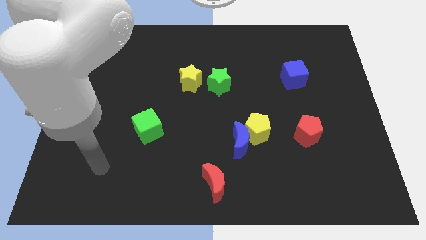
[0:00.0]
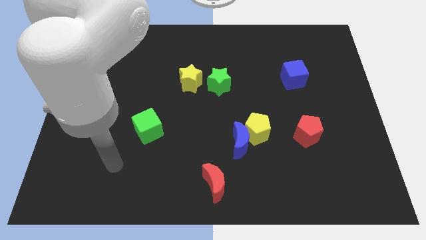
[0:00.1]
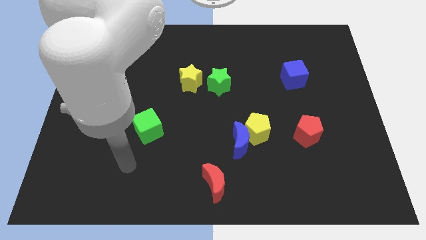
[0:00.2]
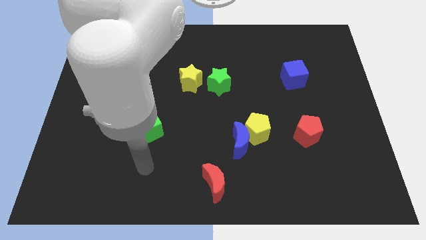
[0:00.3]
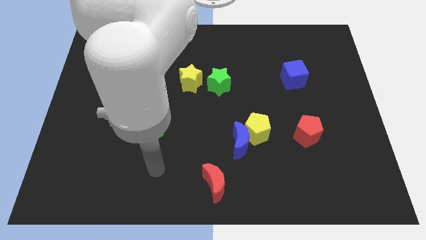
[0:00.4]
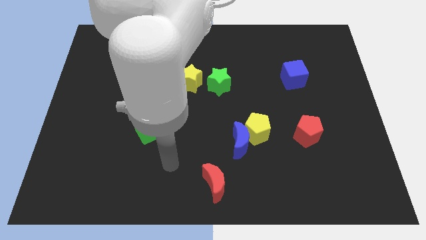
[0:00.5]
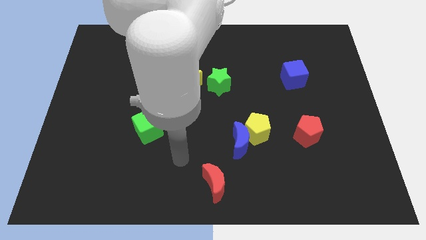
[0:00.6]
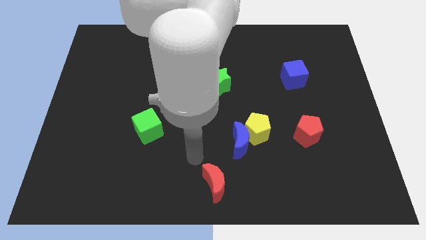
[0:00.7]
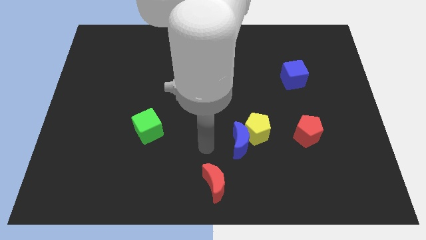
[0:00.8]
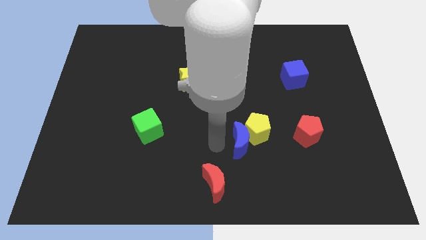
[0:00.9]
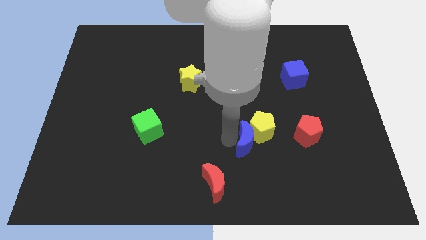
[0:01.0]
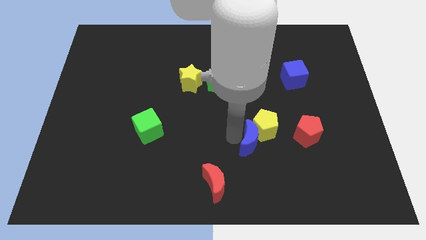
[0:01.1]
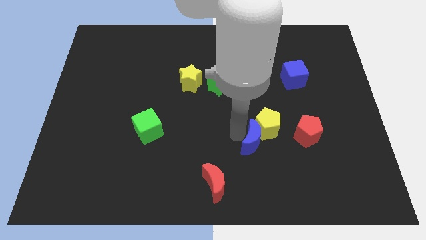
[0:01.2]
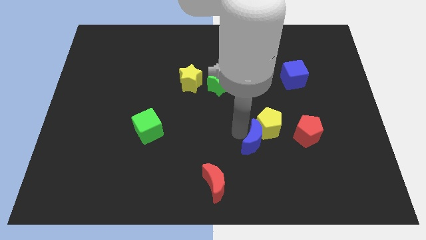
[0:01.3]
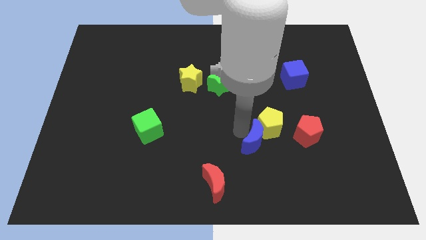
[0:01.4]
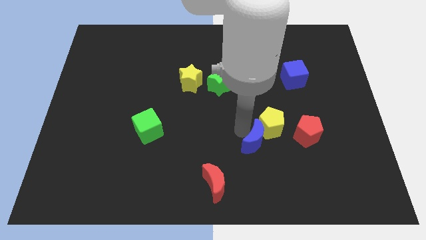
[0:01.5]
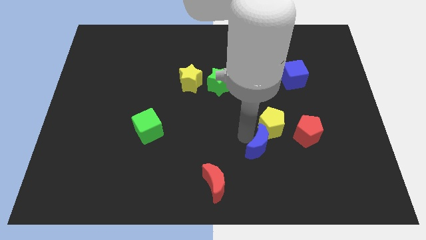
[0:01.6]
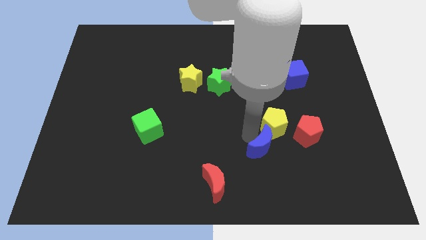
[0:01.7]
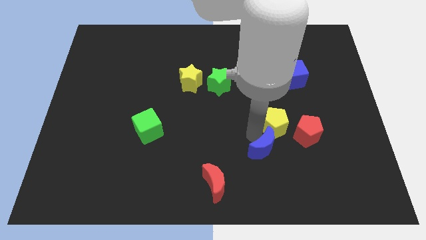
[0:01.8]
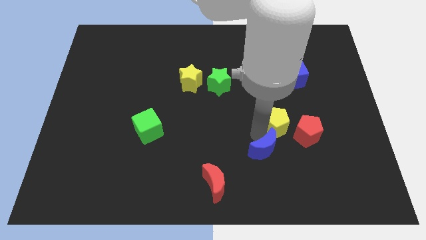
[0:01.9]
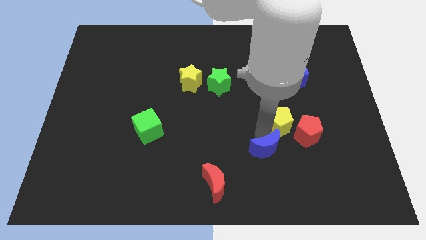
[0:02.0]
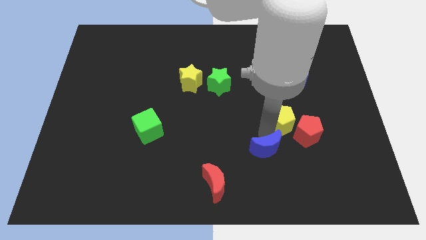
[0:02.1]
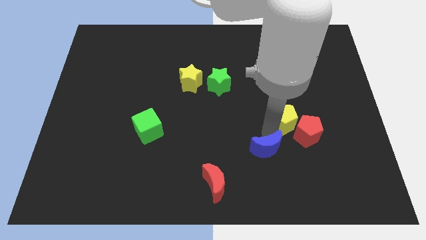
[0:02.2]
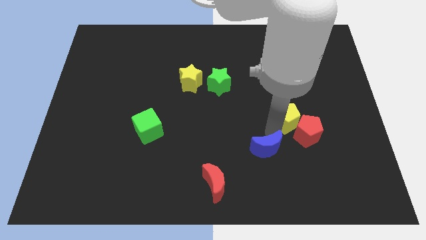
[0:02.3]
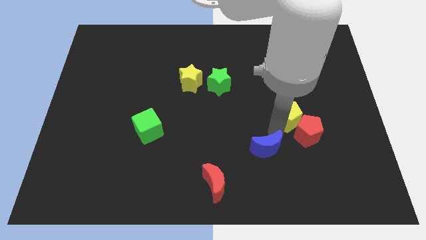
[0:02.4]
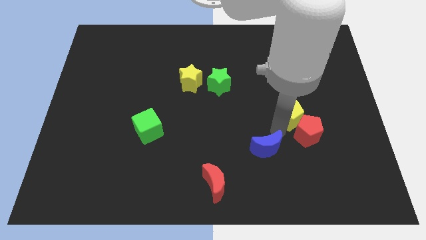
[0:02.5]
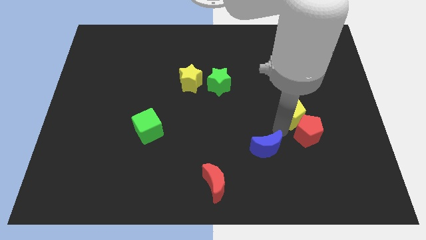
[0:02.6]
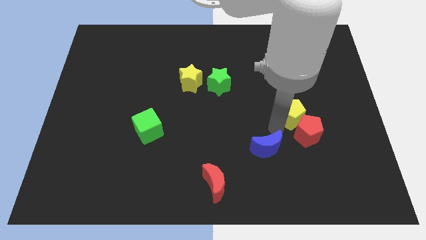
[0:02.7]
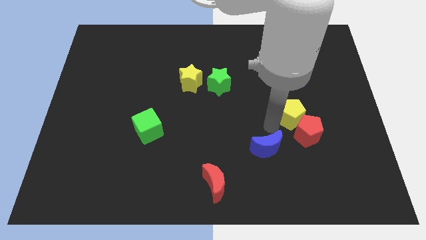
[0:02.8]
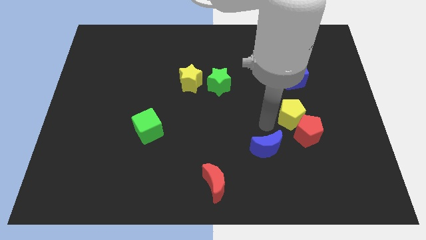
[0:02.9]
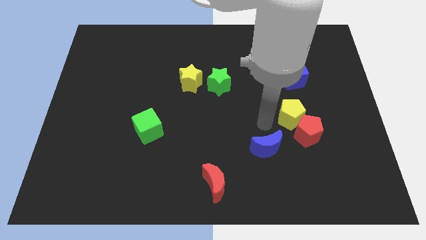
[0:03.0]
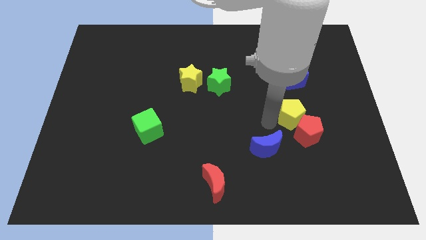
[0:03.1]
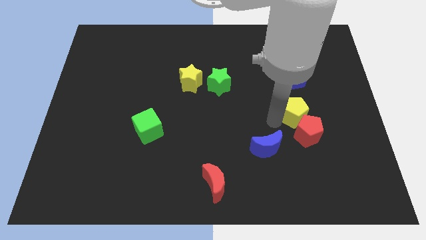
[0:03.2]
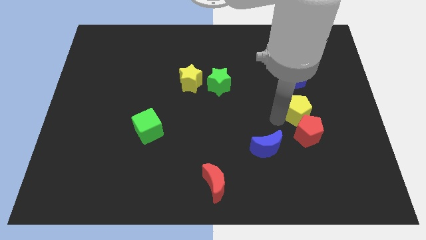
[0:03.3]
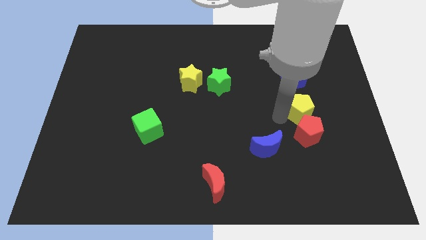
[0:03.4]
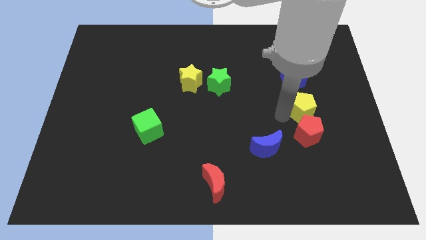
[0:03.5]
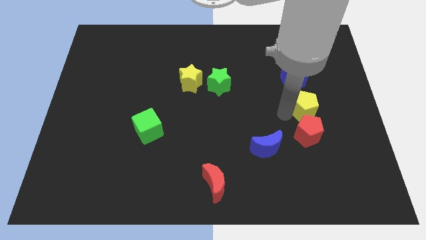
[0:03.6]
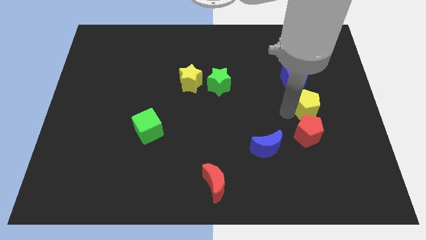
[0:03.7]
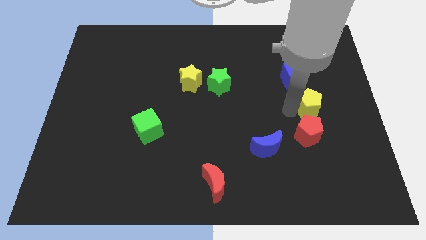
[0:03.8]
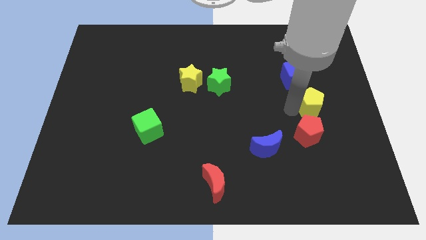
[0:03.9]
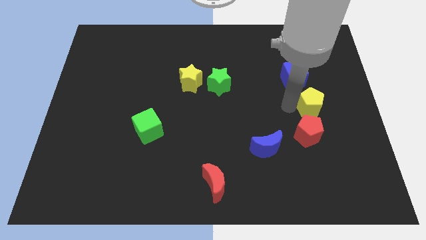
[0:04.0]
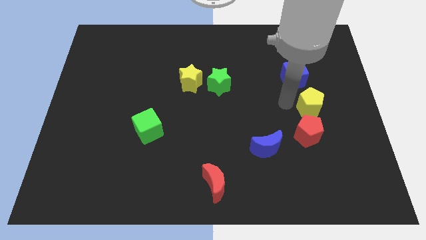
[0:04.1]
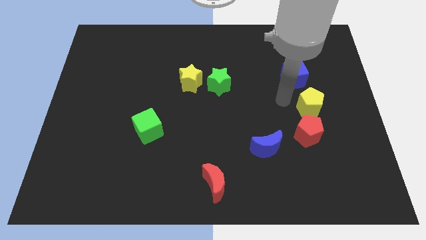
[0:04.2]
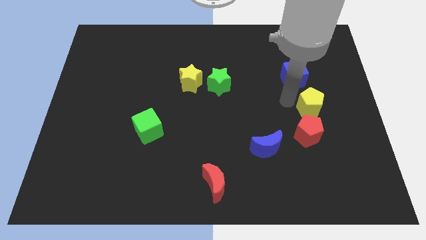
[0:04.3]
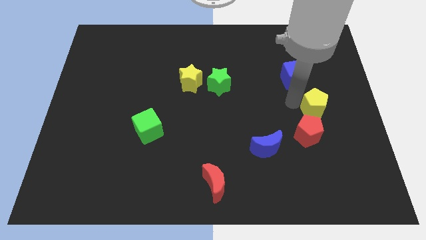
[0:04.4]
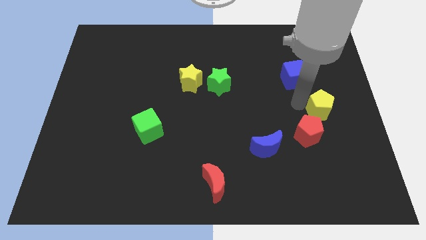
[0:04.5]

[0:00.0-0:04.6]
move the yellow pentagon to the right side

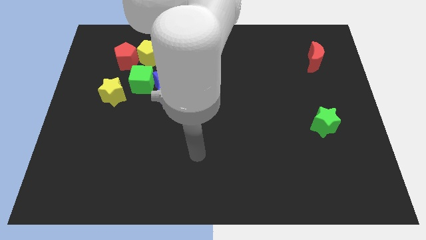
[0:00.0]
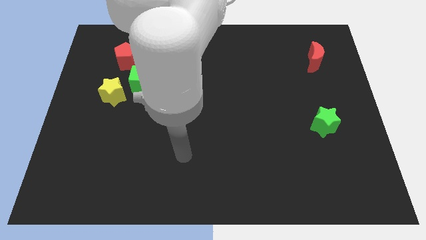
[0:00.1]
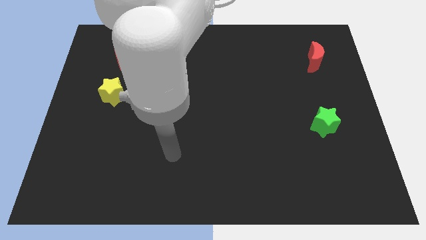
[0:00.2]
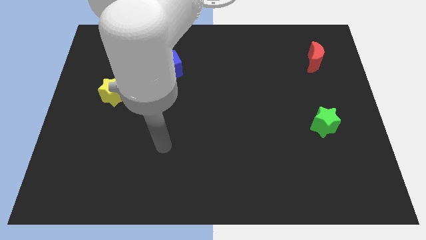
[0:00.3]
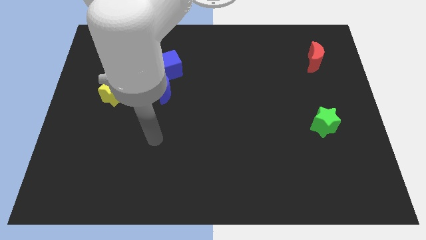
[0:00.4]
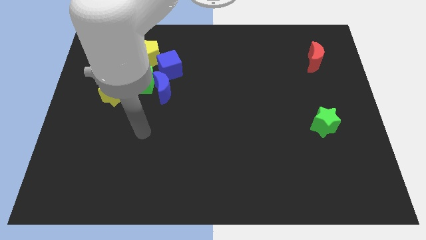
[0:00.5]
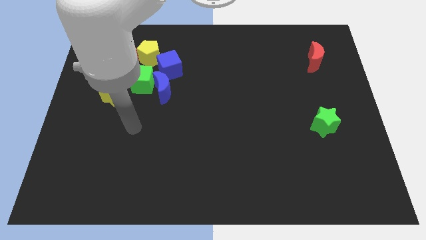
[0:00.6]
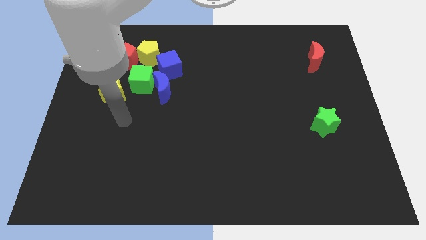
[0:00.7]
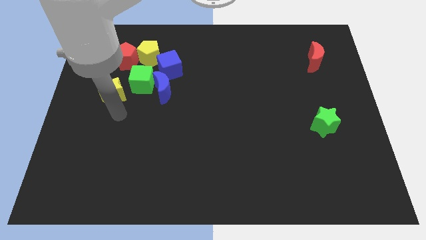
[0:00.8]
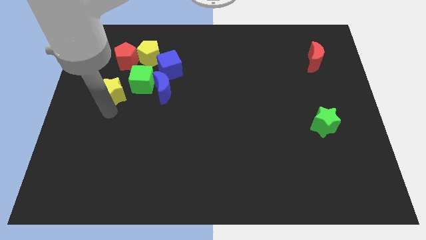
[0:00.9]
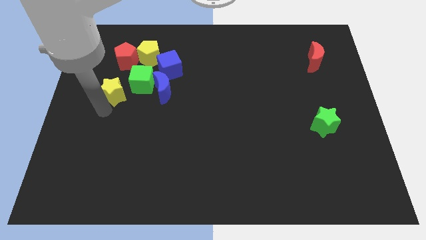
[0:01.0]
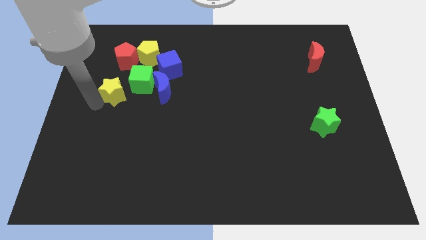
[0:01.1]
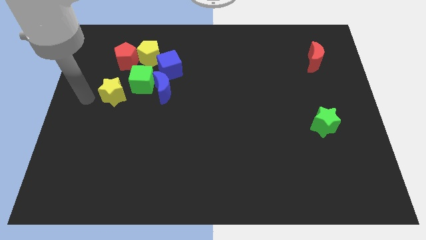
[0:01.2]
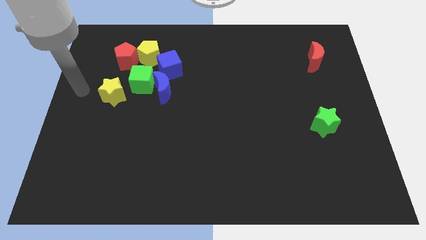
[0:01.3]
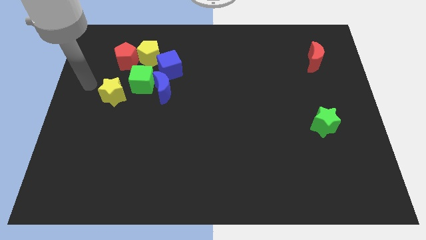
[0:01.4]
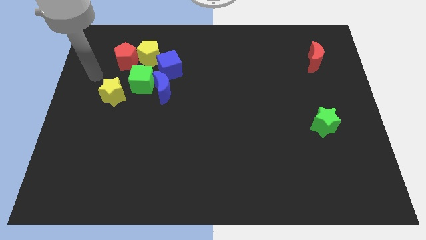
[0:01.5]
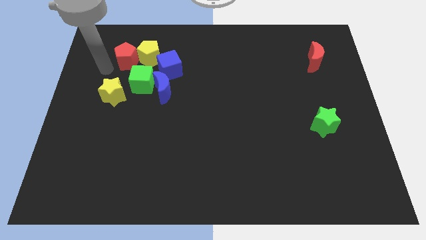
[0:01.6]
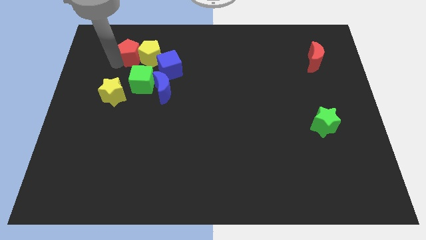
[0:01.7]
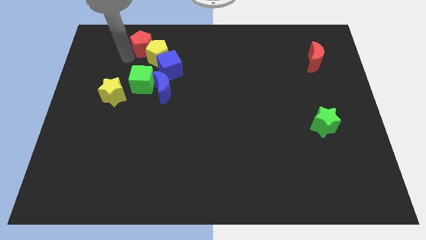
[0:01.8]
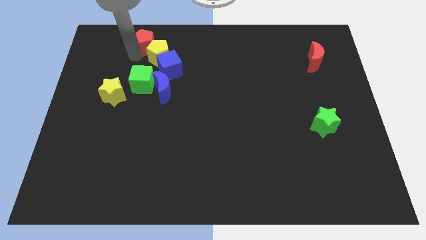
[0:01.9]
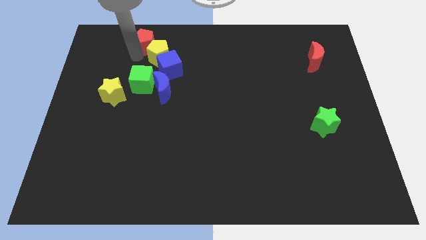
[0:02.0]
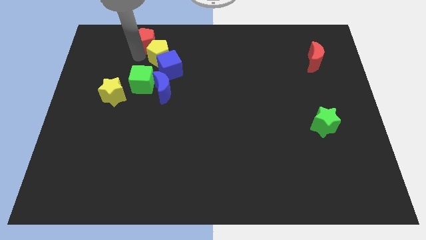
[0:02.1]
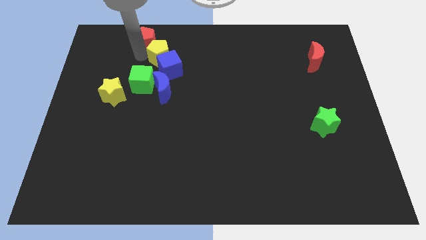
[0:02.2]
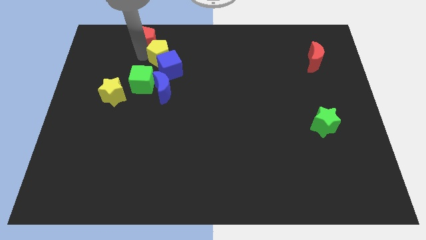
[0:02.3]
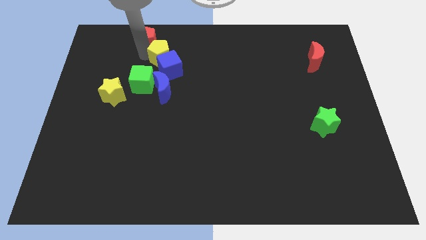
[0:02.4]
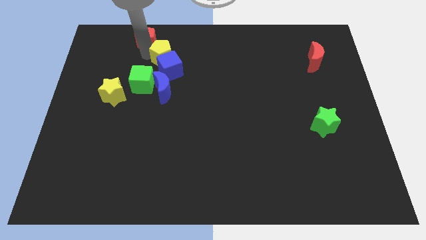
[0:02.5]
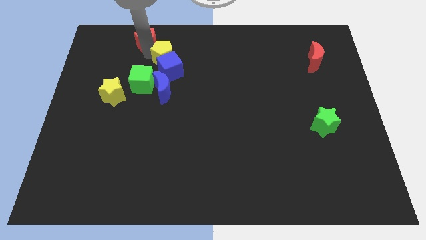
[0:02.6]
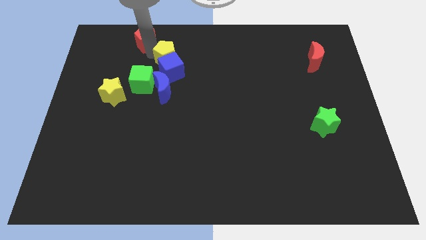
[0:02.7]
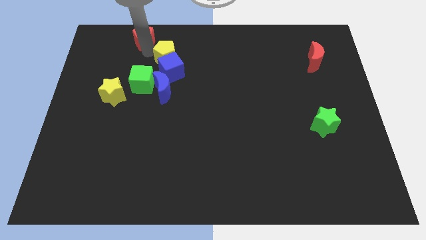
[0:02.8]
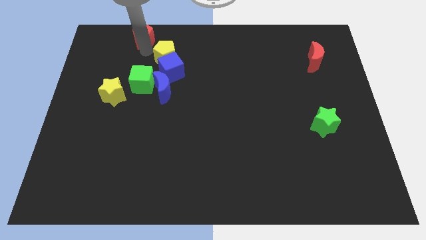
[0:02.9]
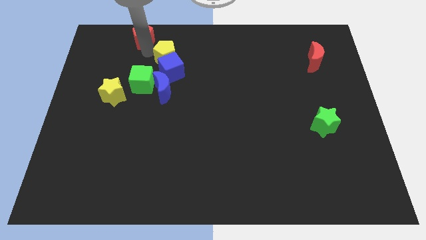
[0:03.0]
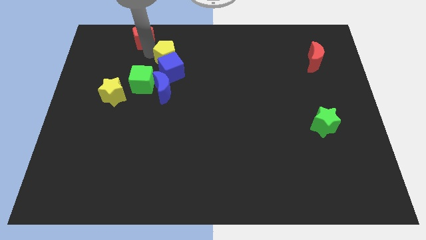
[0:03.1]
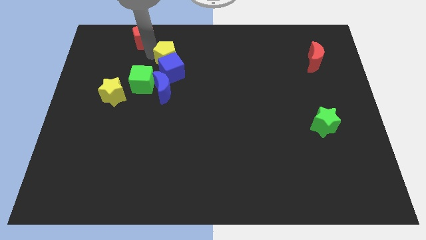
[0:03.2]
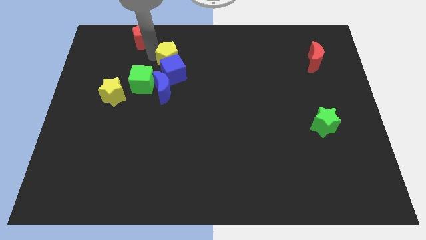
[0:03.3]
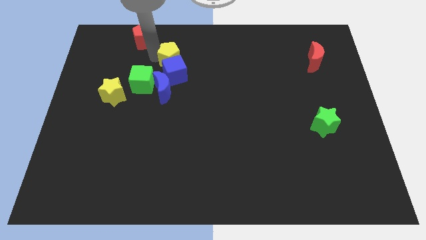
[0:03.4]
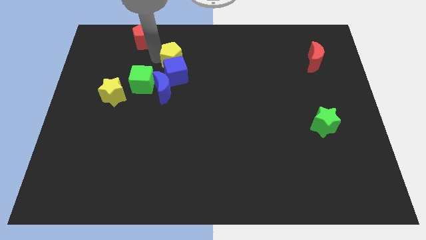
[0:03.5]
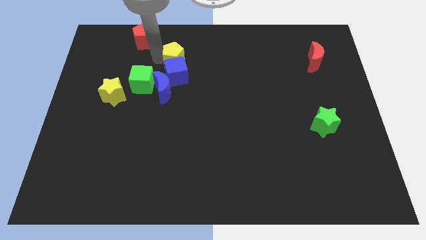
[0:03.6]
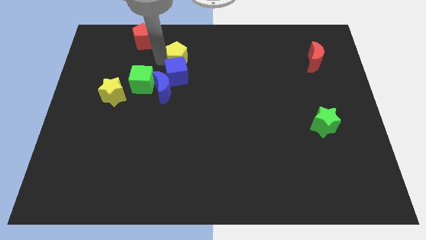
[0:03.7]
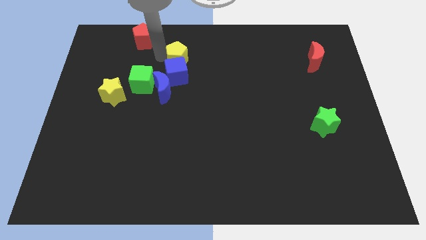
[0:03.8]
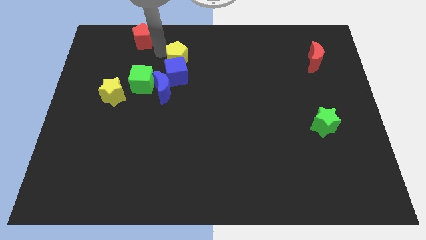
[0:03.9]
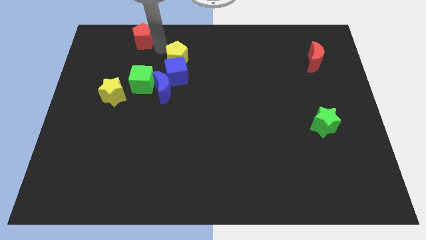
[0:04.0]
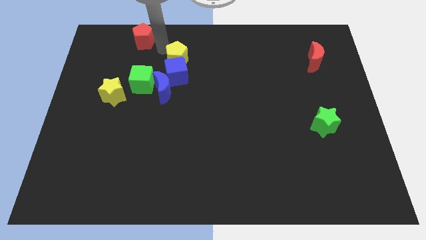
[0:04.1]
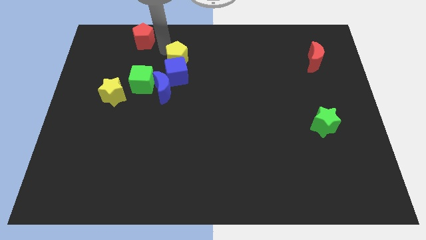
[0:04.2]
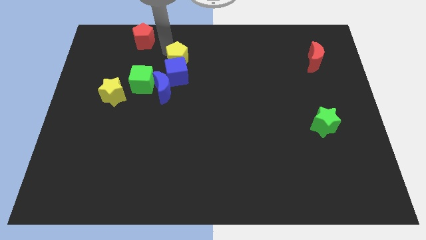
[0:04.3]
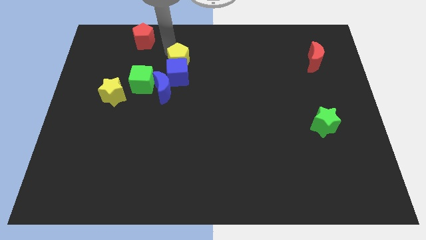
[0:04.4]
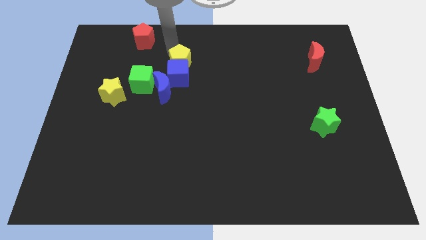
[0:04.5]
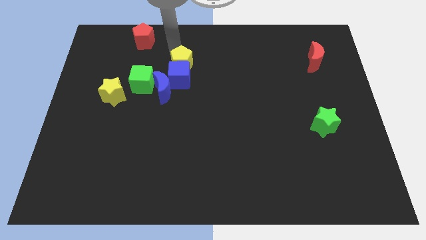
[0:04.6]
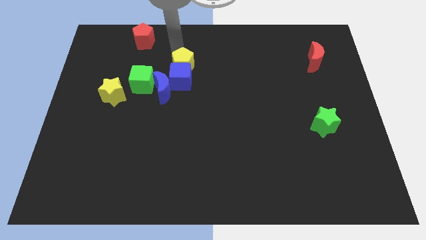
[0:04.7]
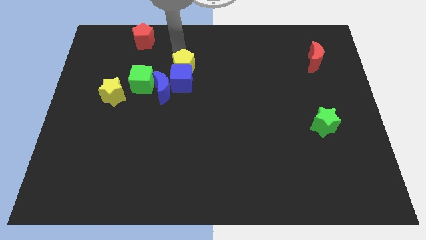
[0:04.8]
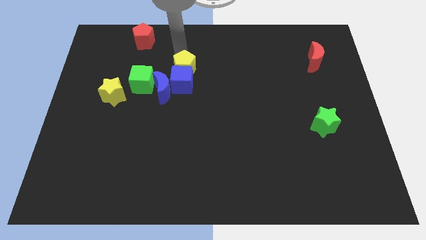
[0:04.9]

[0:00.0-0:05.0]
slide the yellow pentagon to the middle of the board
